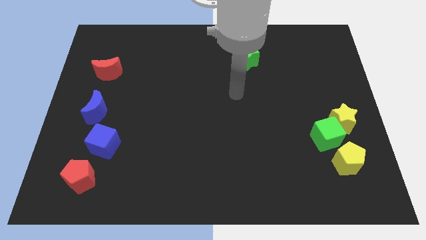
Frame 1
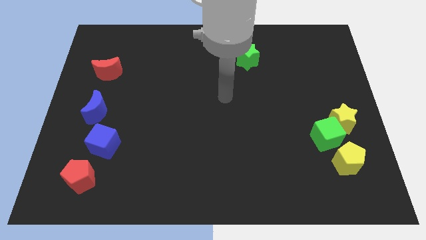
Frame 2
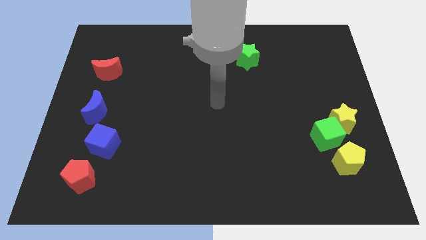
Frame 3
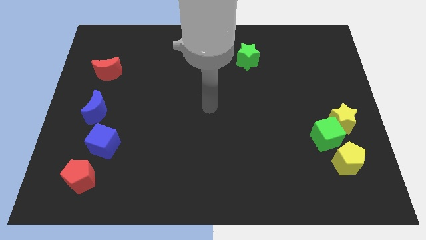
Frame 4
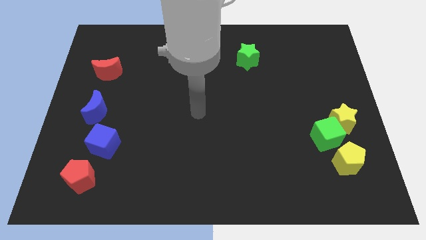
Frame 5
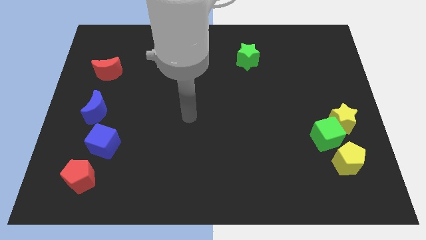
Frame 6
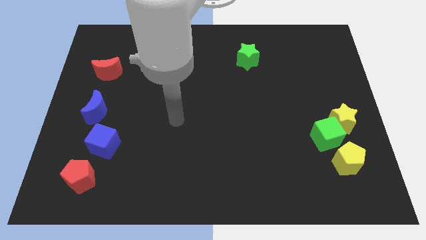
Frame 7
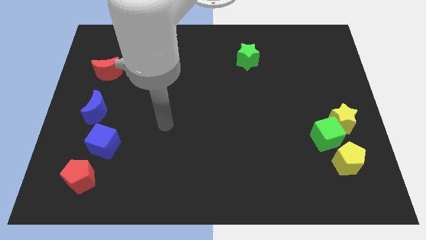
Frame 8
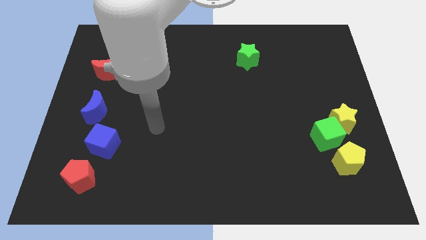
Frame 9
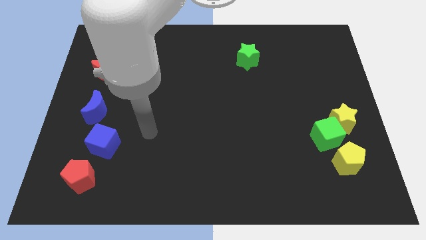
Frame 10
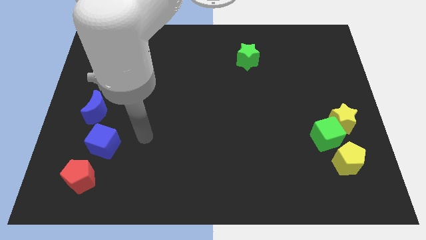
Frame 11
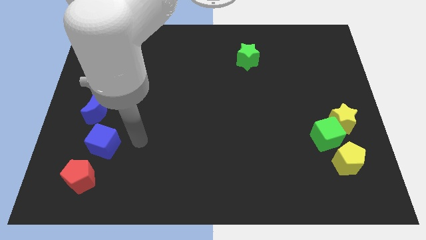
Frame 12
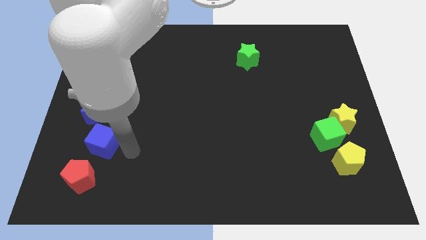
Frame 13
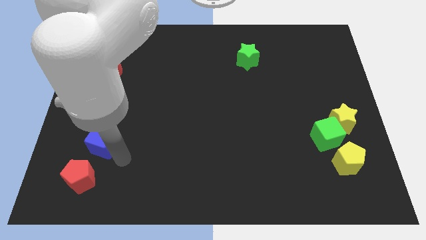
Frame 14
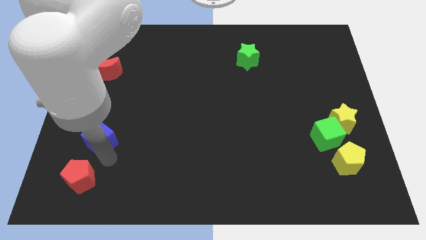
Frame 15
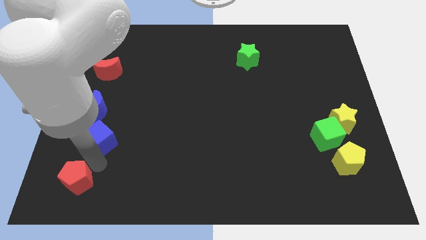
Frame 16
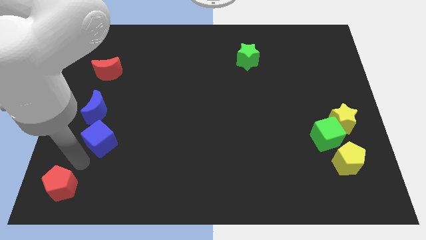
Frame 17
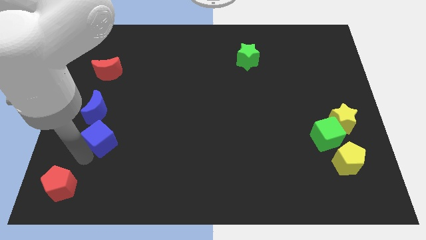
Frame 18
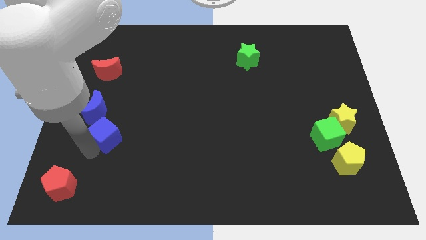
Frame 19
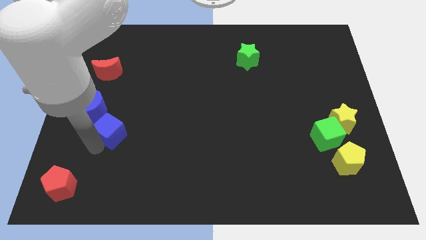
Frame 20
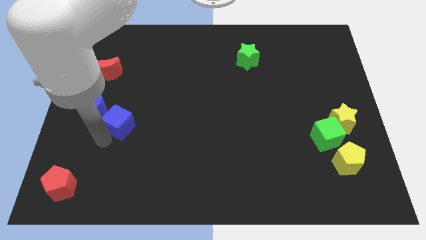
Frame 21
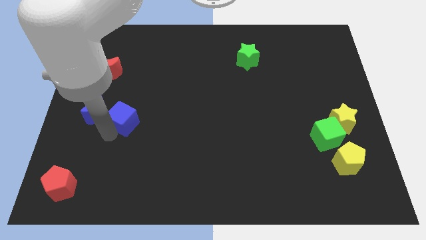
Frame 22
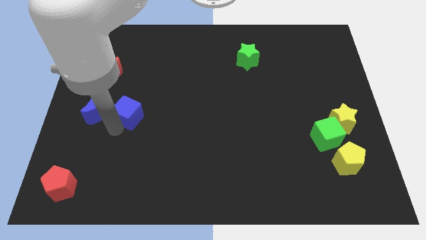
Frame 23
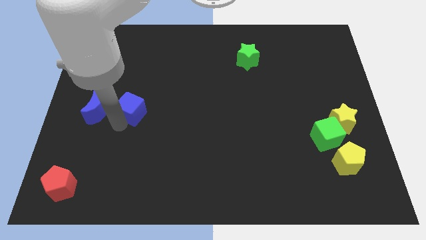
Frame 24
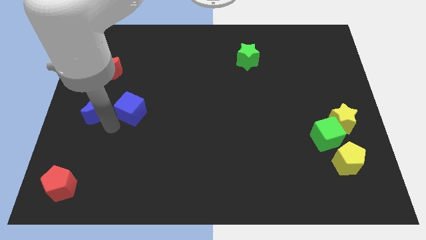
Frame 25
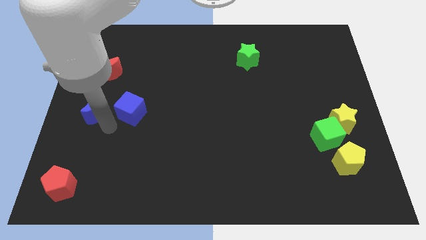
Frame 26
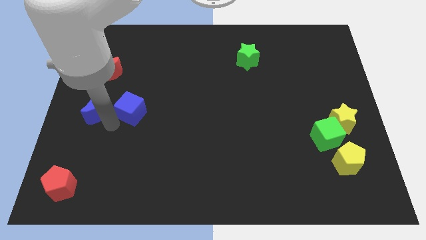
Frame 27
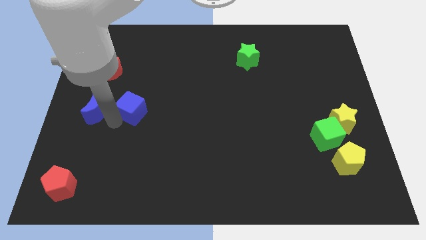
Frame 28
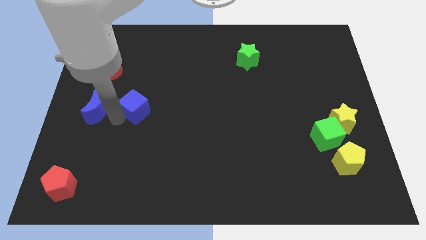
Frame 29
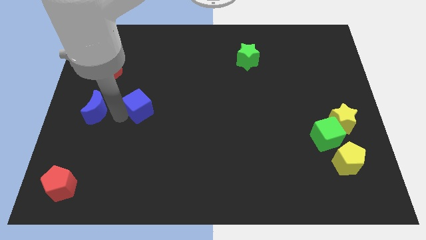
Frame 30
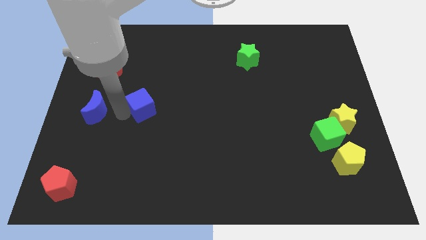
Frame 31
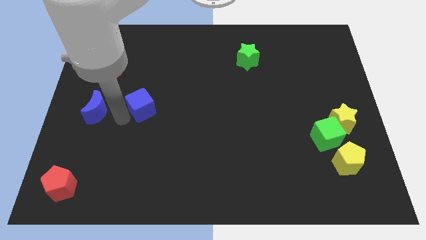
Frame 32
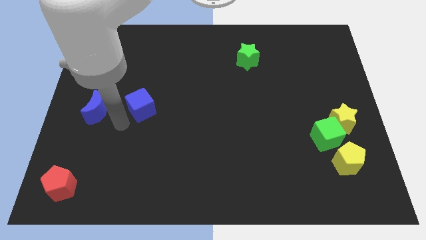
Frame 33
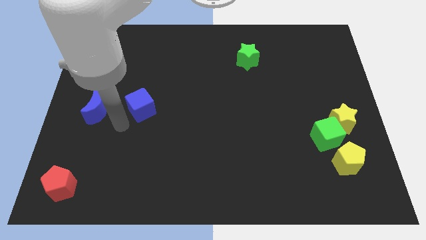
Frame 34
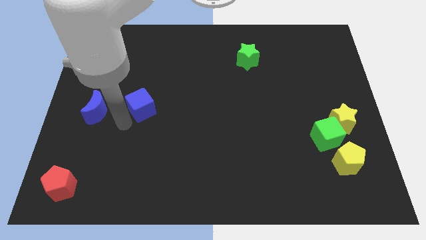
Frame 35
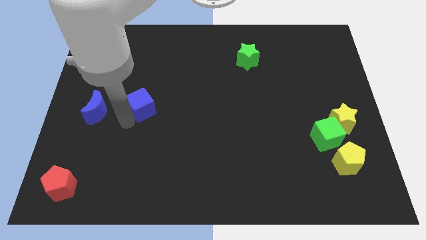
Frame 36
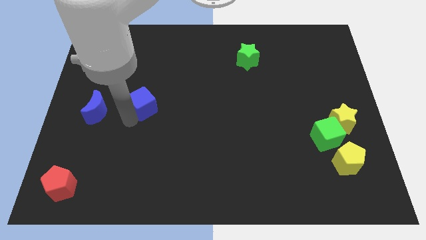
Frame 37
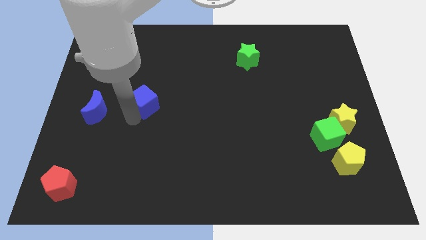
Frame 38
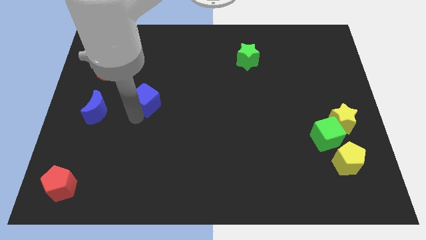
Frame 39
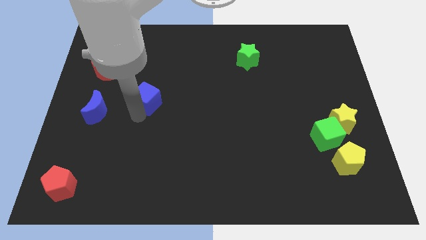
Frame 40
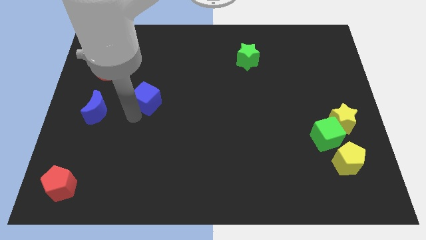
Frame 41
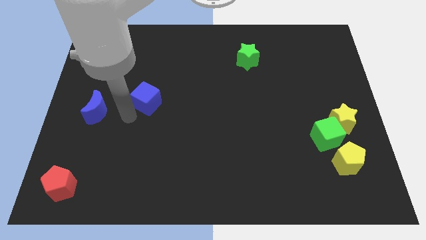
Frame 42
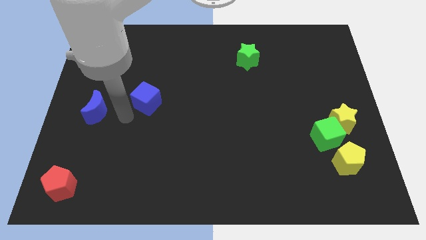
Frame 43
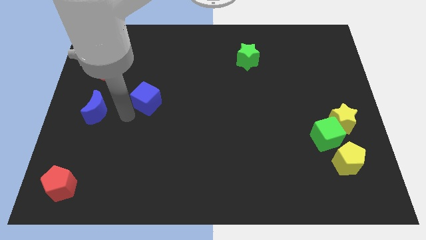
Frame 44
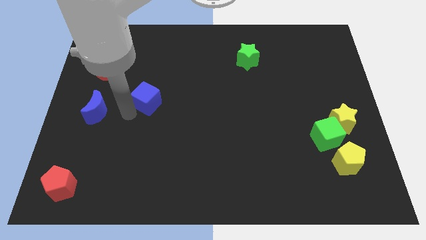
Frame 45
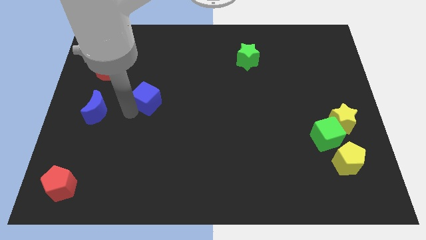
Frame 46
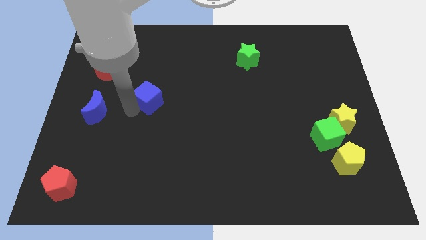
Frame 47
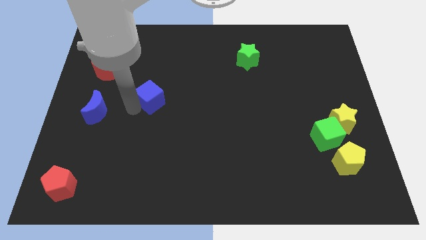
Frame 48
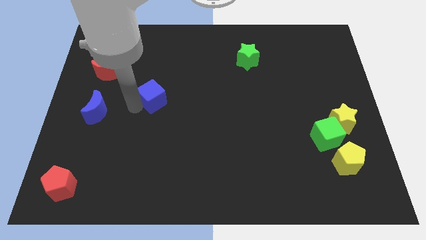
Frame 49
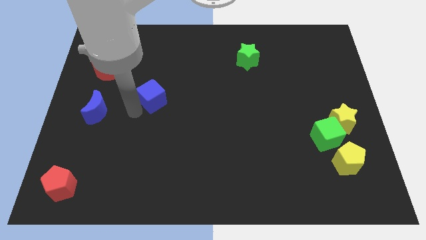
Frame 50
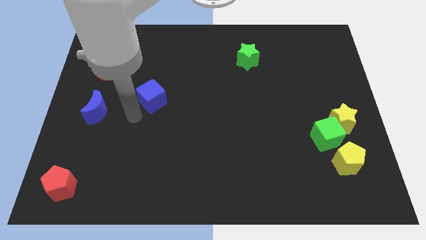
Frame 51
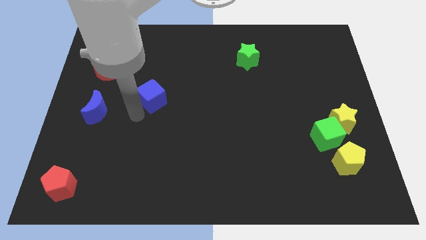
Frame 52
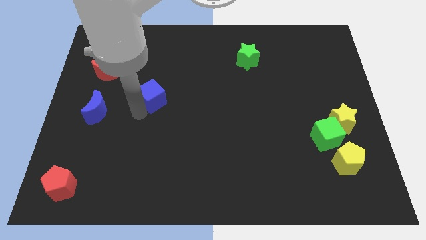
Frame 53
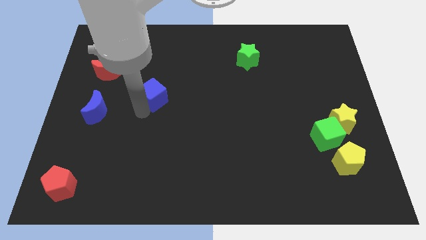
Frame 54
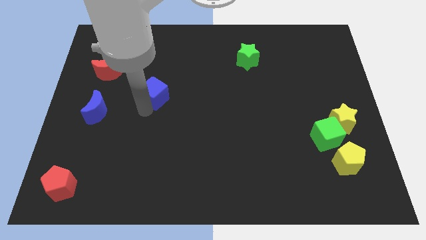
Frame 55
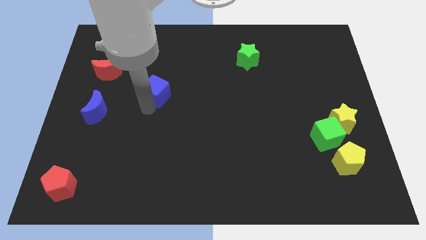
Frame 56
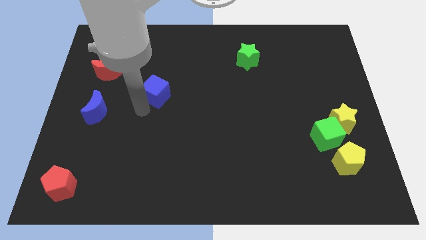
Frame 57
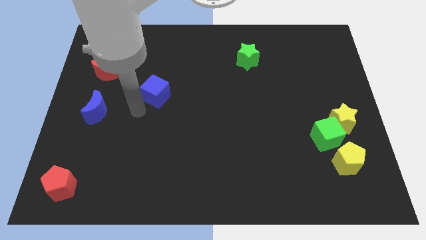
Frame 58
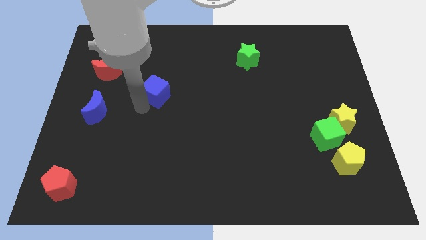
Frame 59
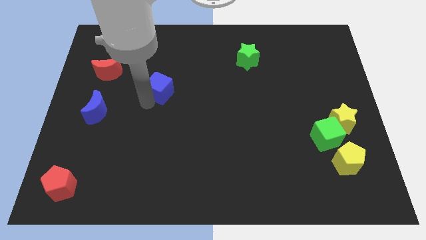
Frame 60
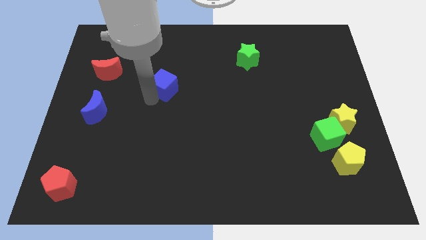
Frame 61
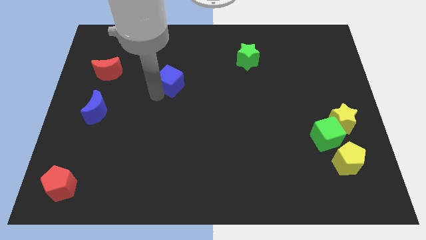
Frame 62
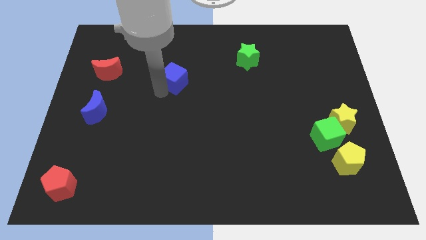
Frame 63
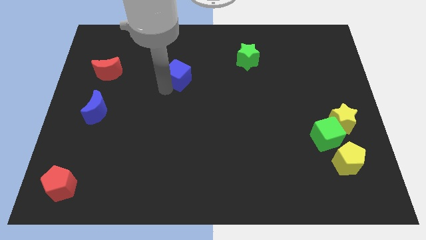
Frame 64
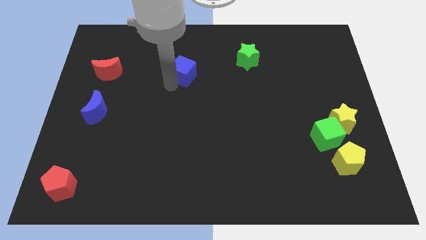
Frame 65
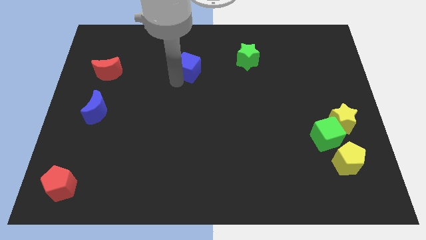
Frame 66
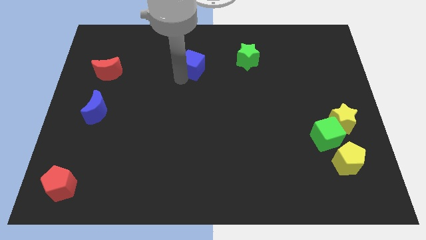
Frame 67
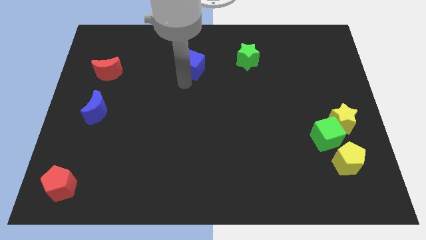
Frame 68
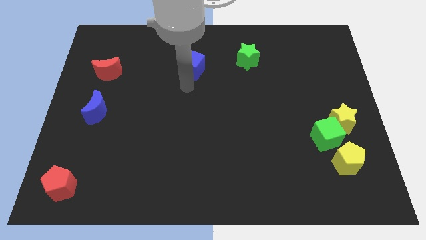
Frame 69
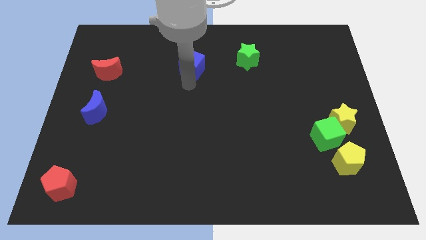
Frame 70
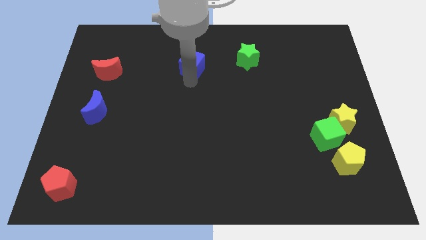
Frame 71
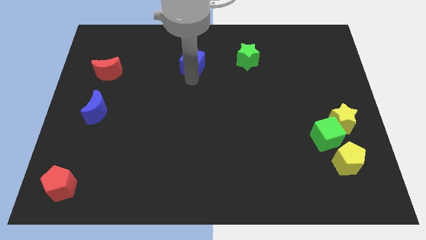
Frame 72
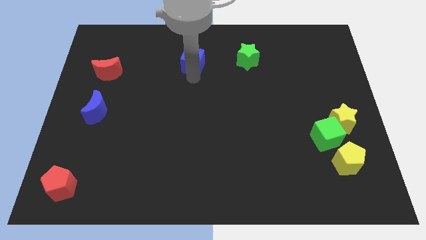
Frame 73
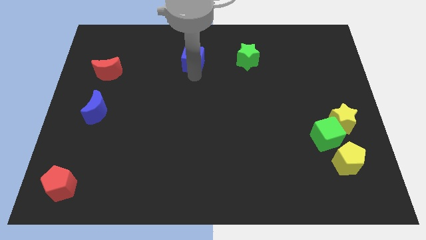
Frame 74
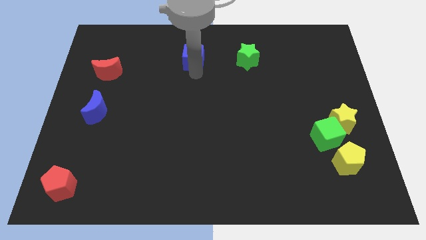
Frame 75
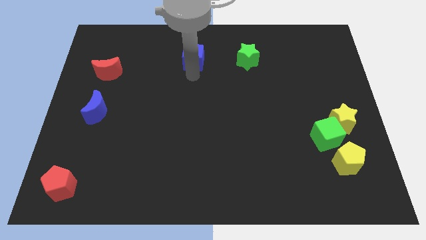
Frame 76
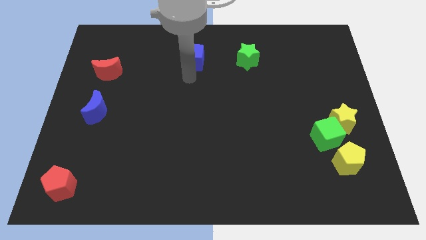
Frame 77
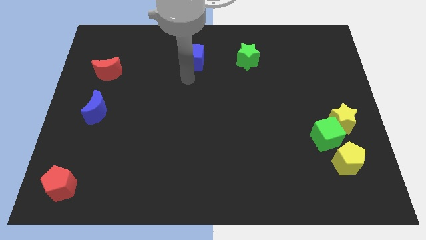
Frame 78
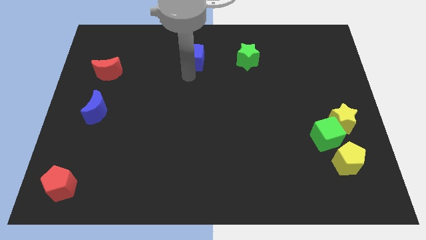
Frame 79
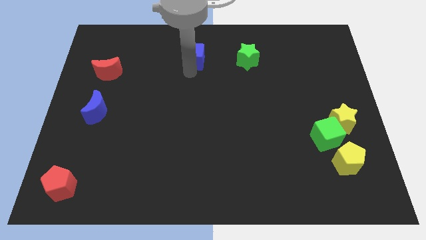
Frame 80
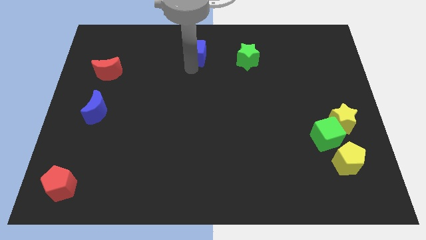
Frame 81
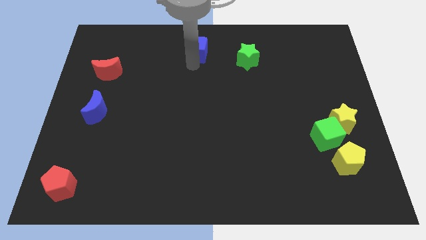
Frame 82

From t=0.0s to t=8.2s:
move the blue cube to the towards your base
